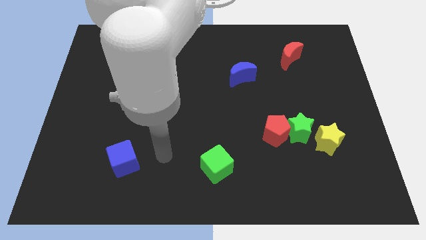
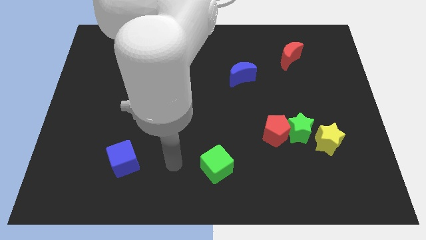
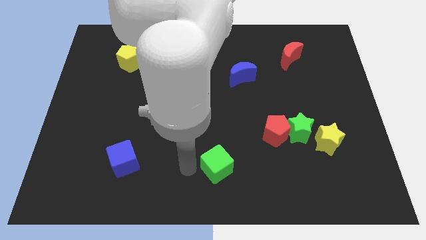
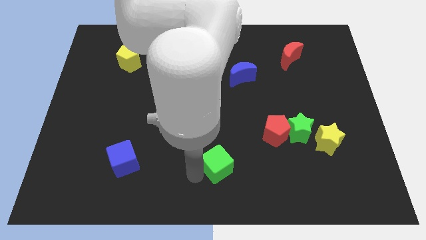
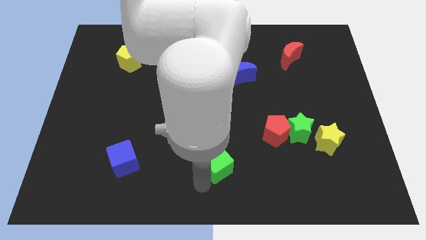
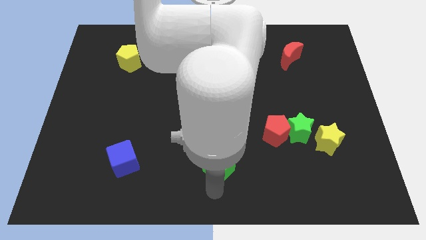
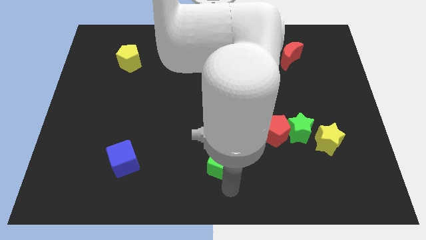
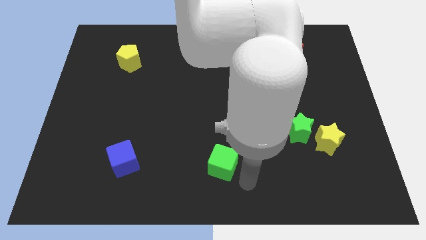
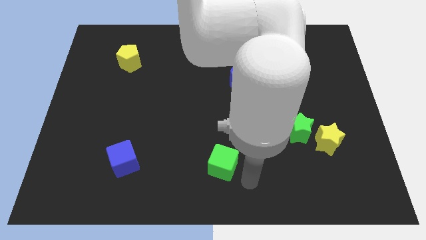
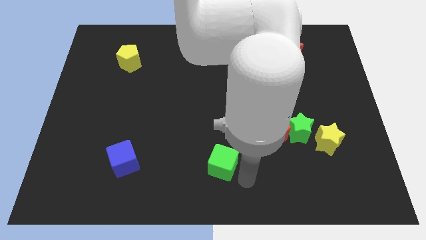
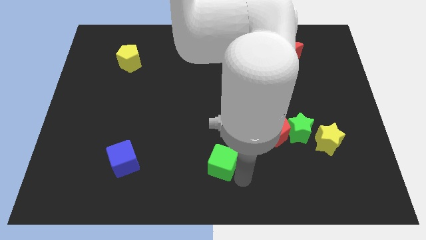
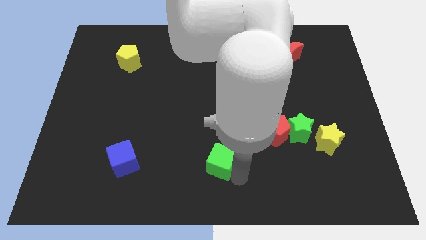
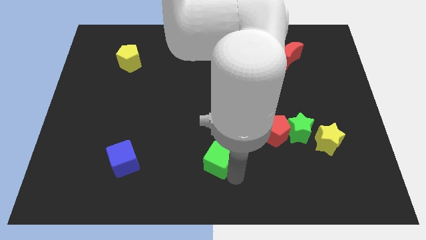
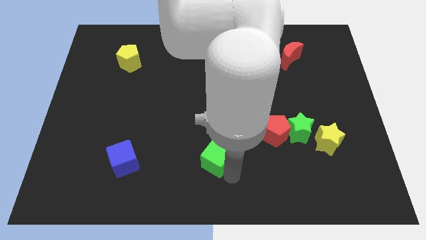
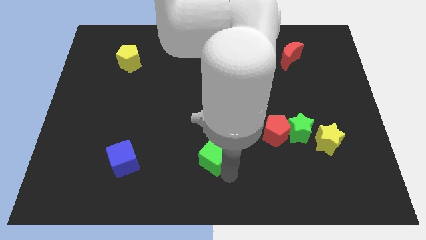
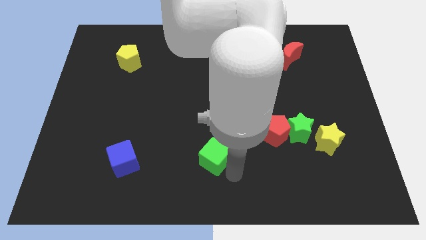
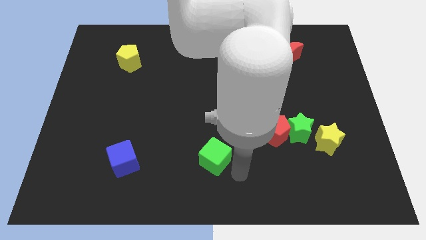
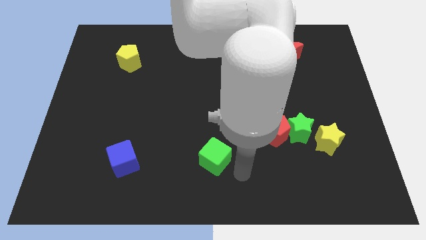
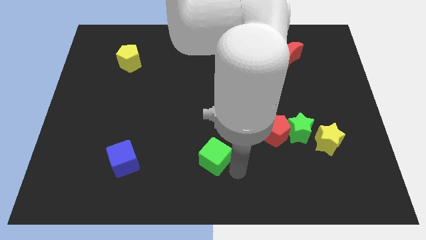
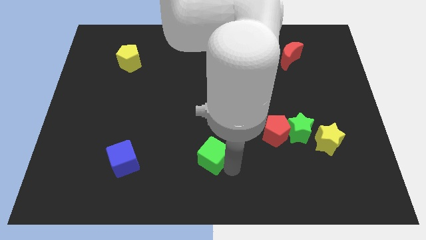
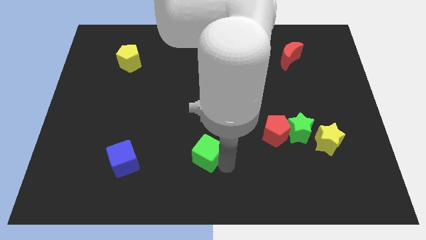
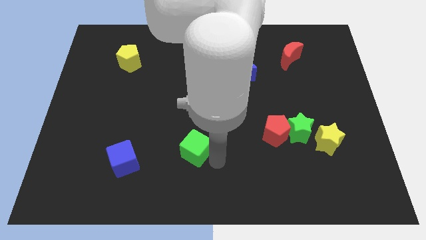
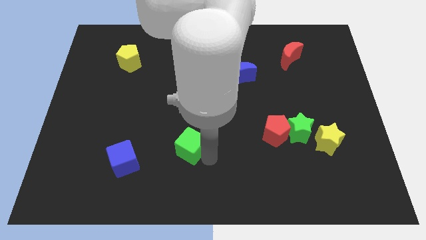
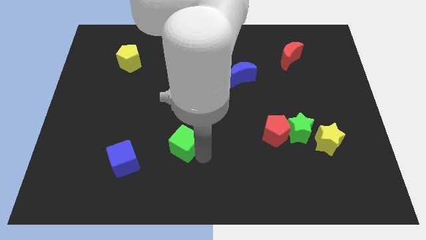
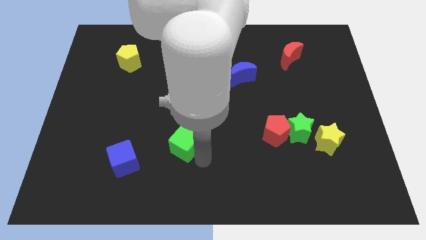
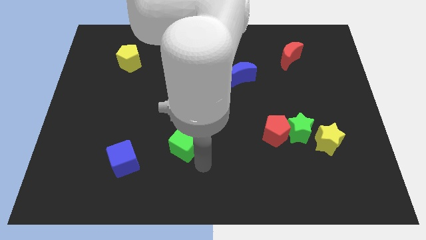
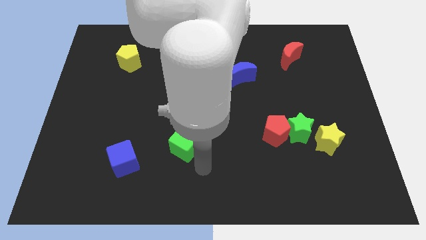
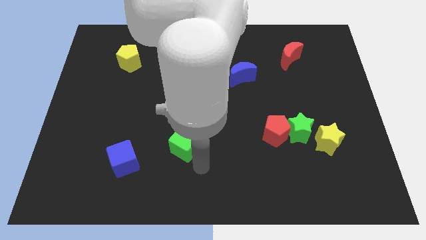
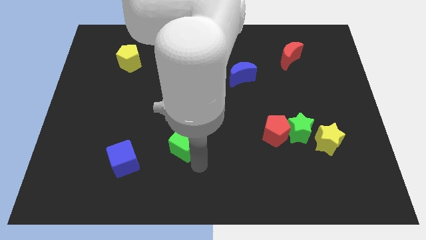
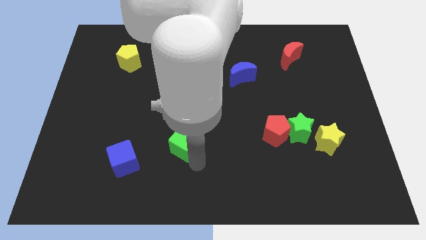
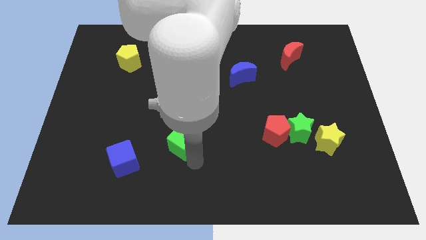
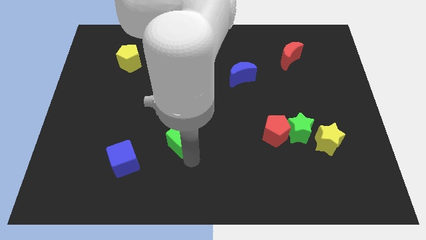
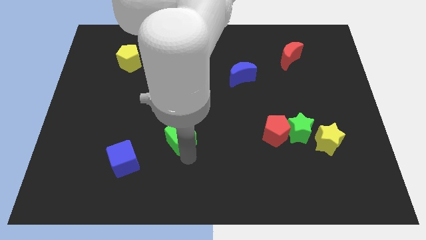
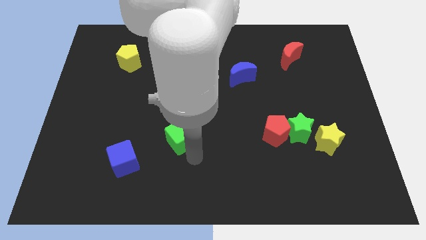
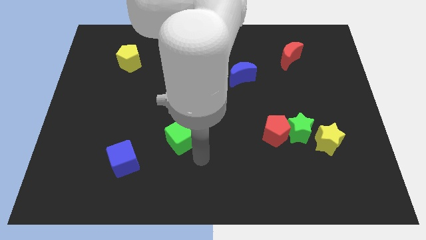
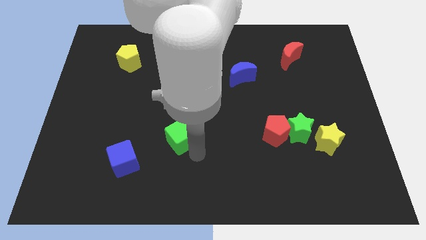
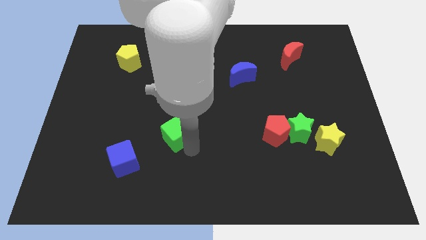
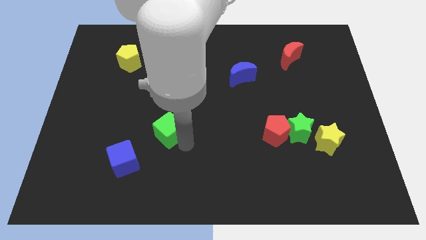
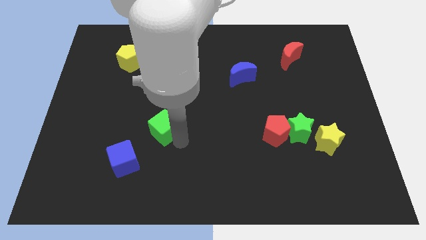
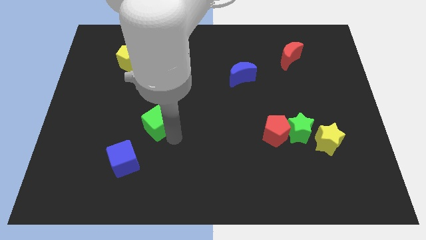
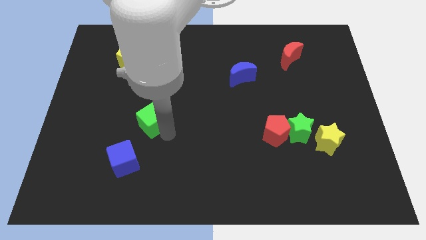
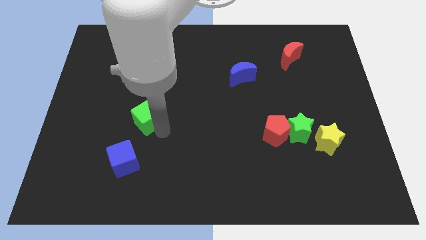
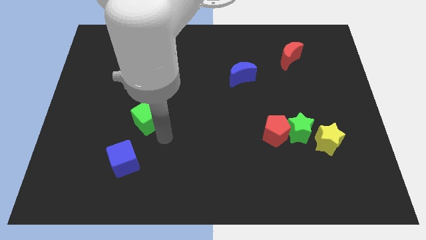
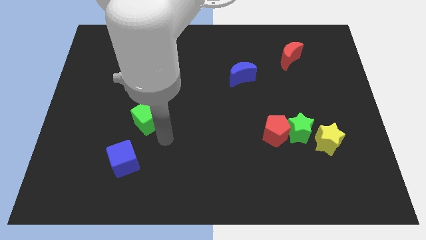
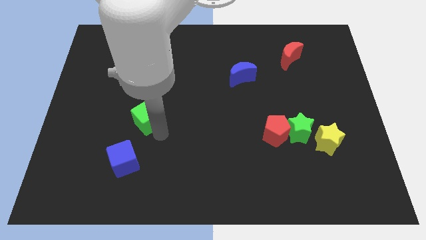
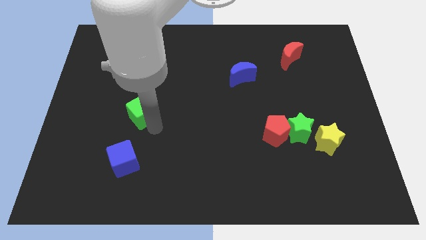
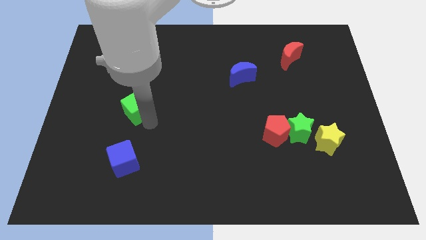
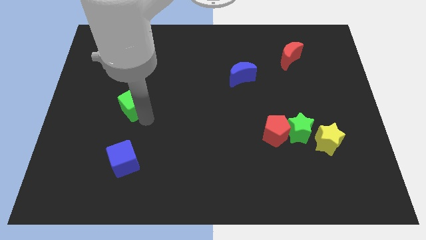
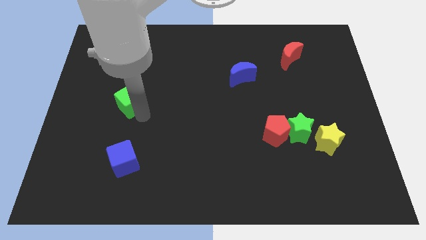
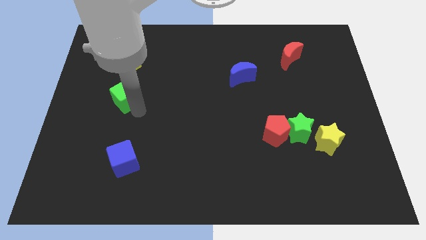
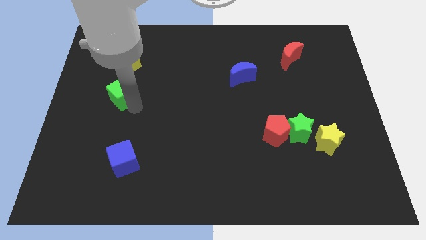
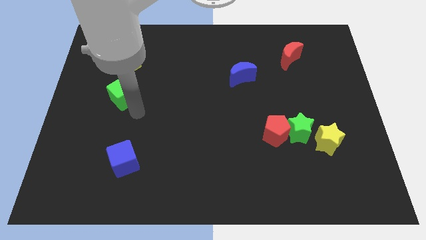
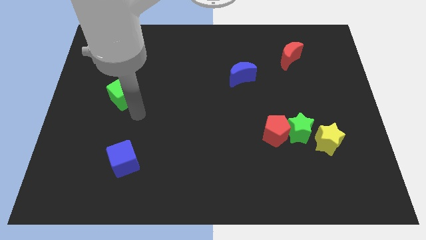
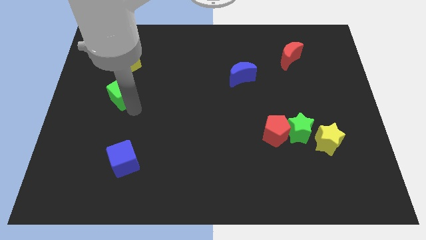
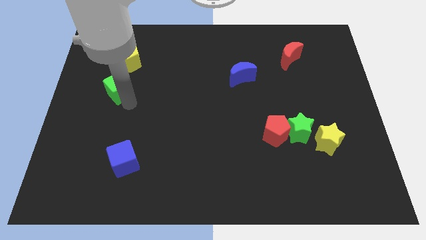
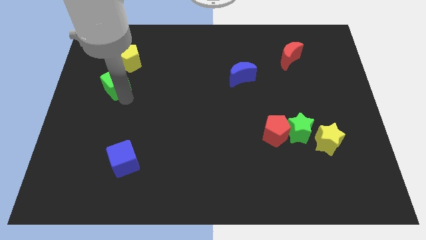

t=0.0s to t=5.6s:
put the green cube to the bottom left side of the yellow pentagon

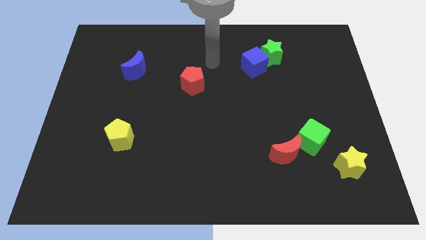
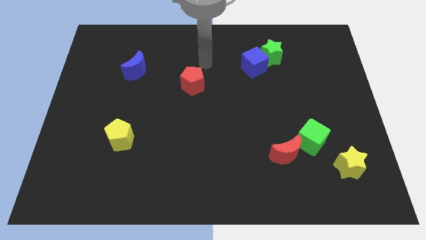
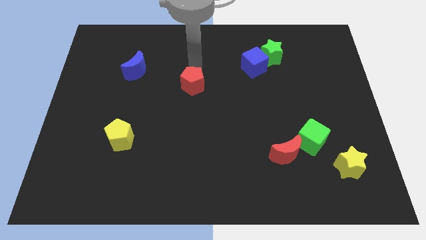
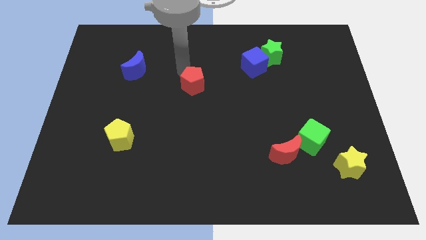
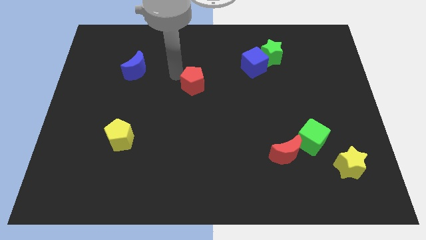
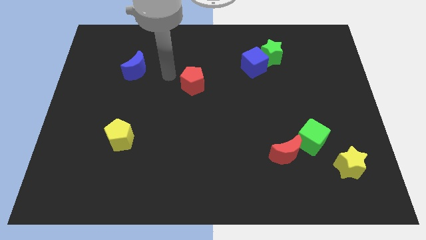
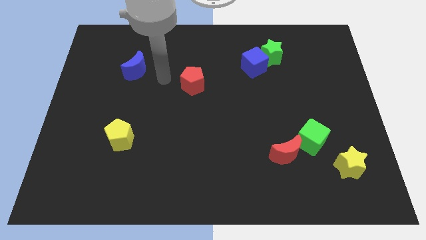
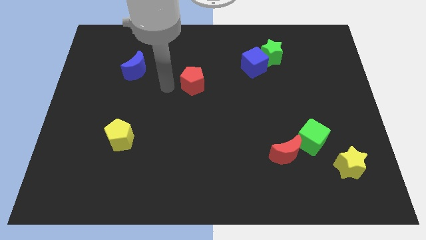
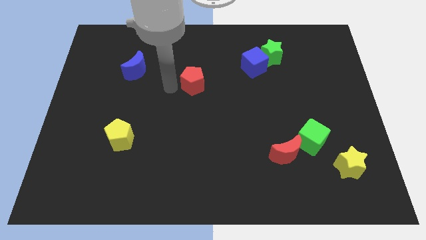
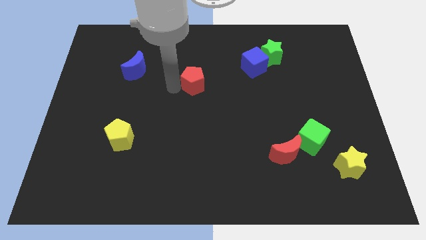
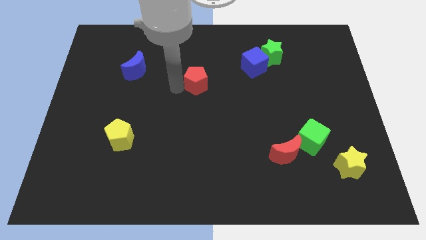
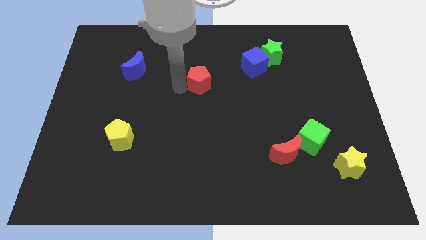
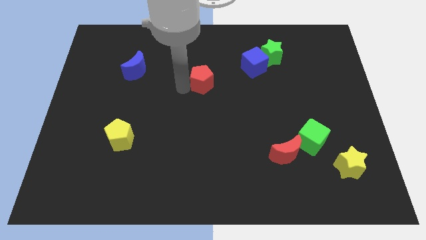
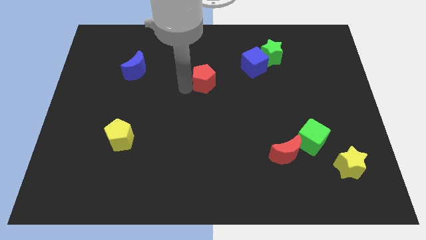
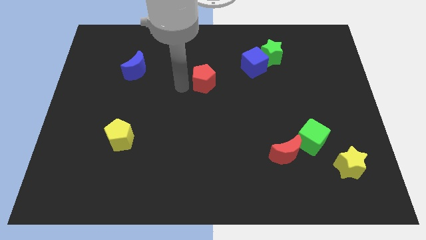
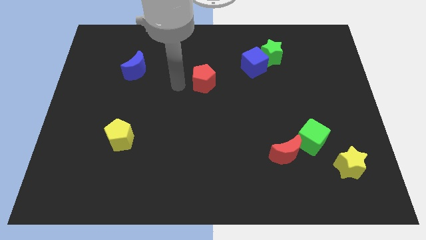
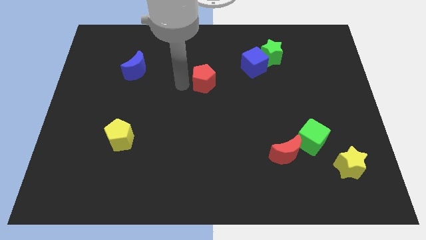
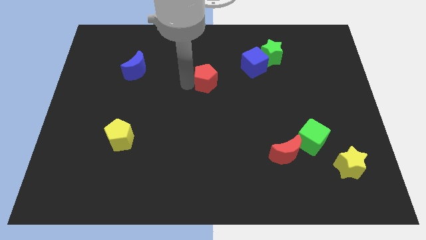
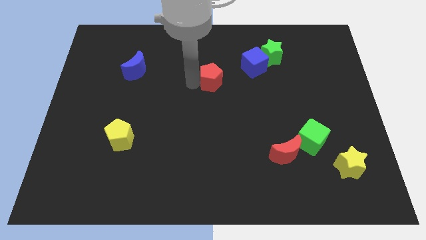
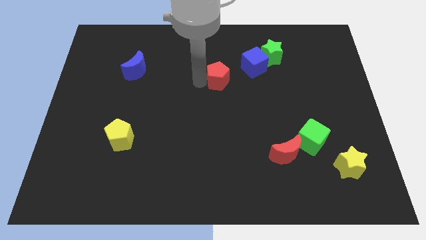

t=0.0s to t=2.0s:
slide the red pentagon diagonally down and to the left of the blue cube

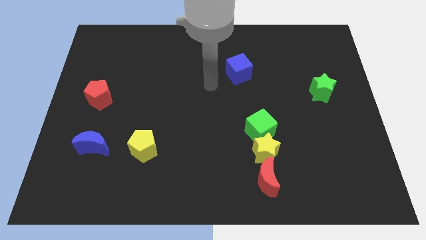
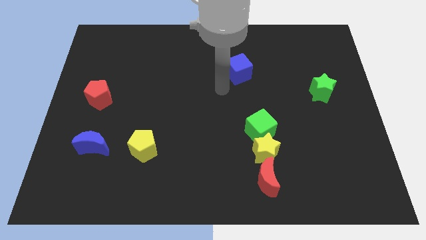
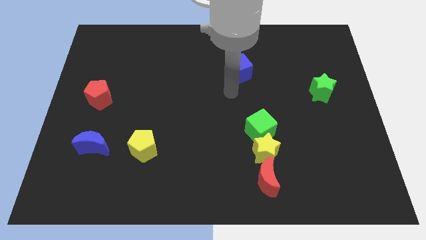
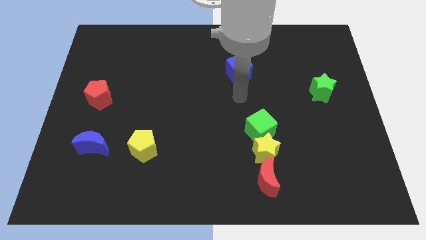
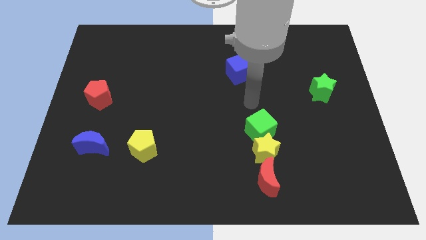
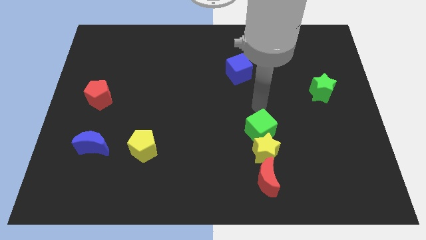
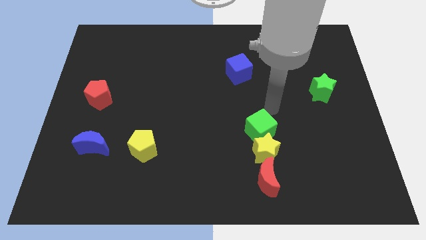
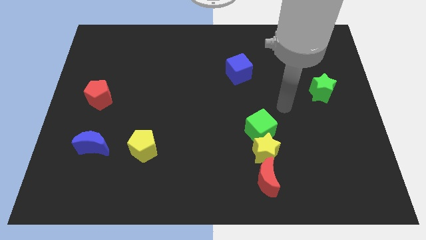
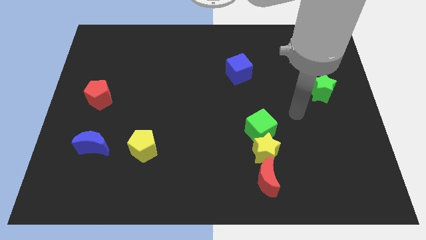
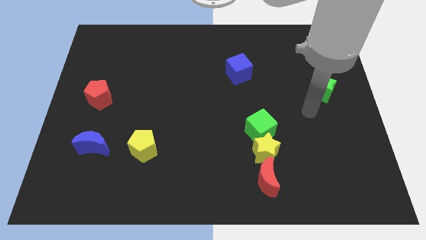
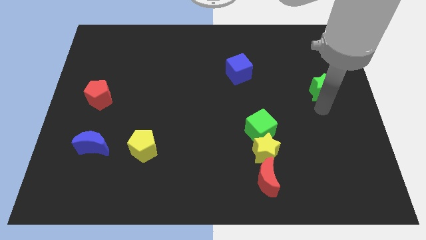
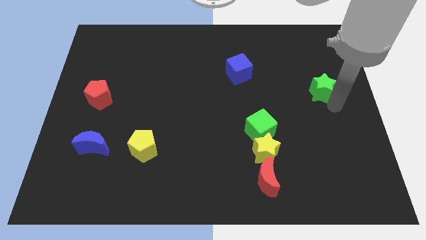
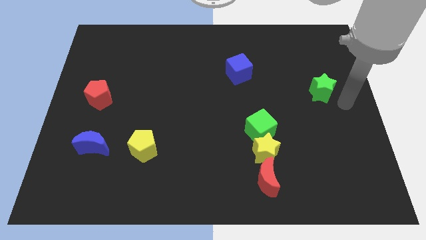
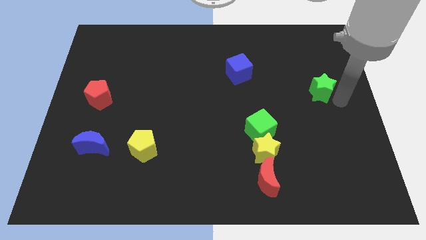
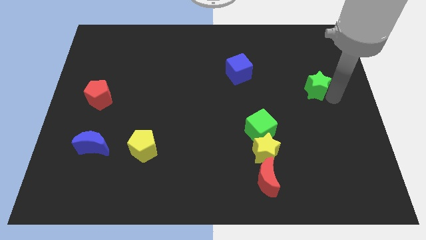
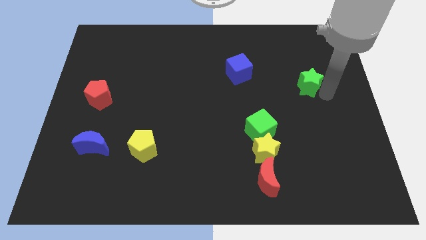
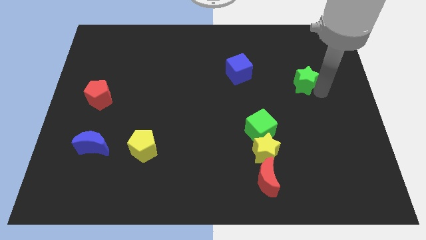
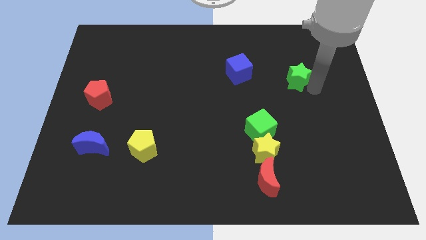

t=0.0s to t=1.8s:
put the green star right of the blue cube
